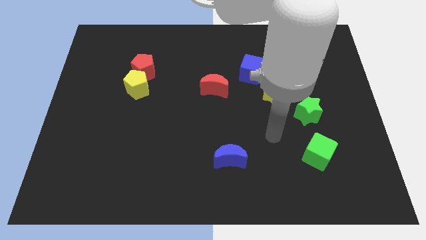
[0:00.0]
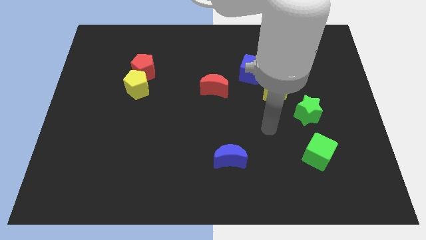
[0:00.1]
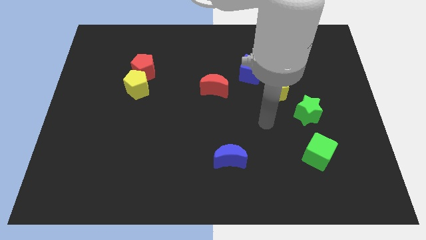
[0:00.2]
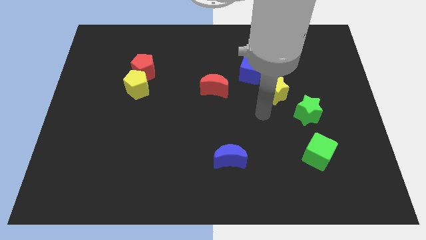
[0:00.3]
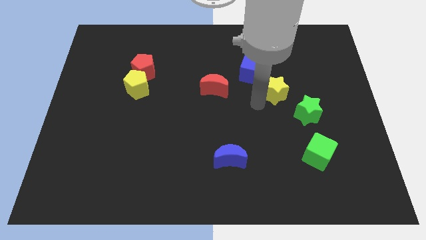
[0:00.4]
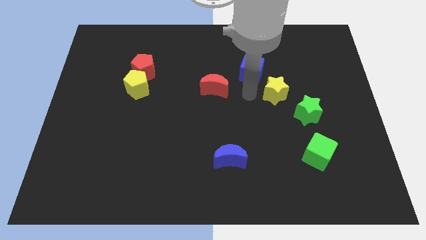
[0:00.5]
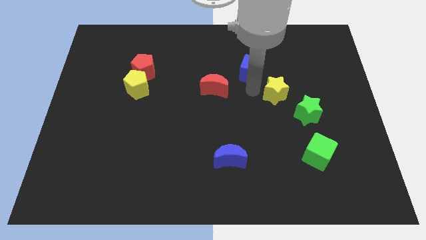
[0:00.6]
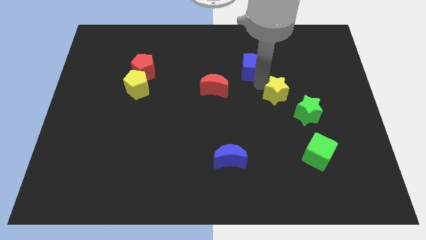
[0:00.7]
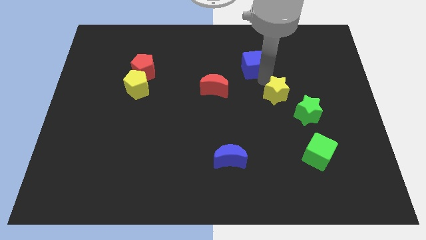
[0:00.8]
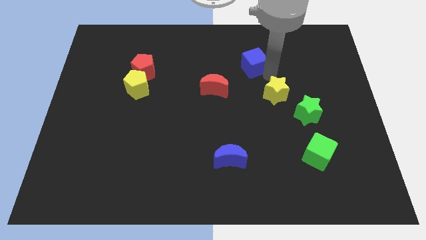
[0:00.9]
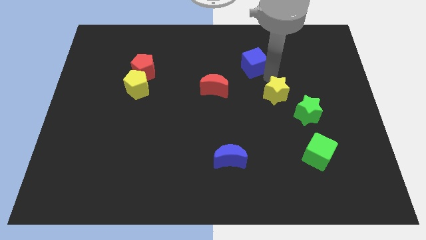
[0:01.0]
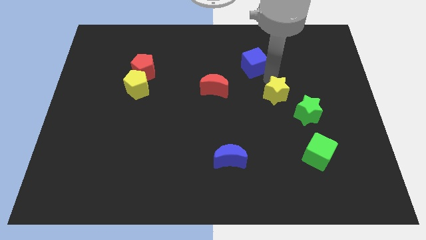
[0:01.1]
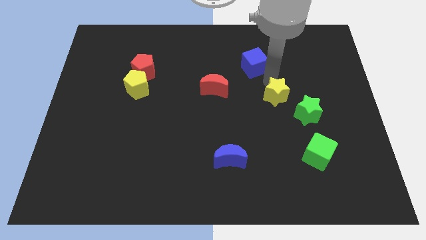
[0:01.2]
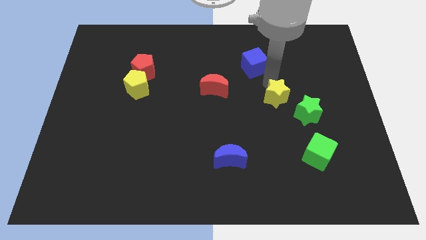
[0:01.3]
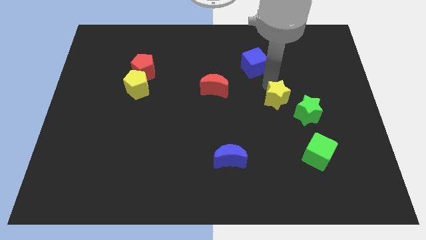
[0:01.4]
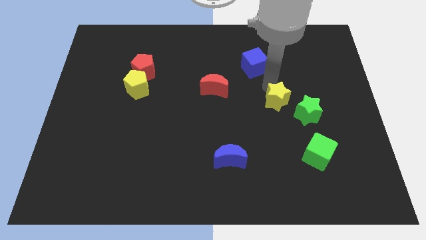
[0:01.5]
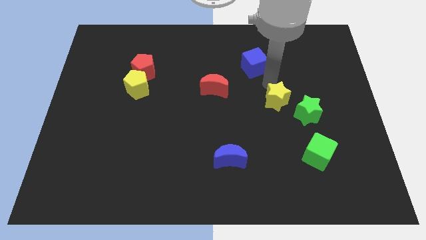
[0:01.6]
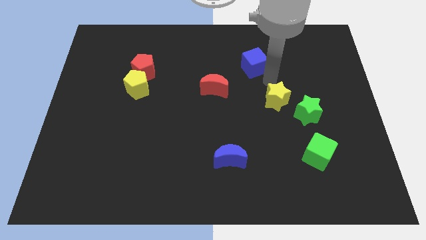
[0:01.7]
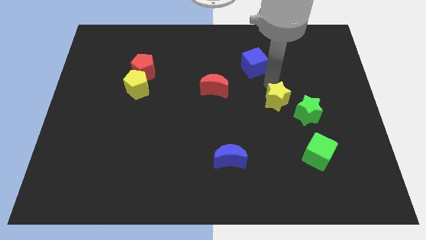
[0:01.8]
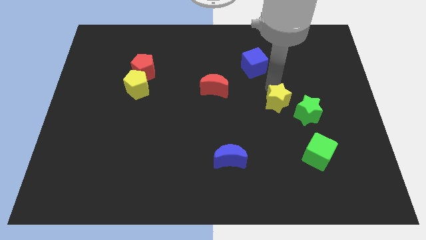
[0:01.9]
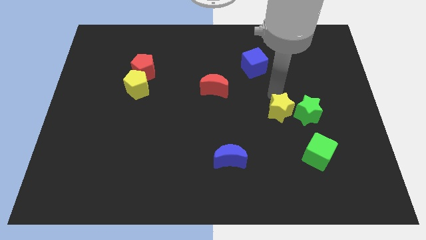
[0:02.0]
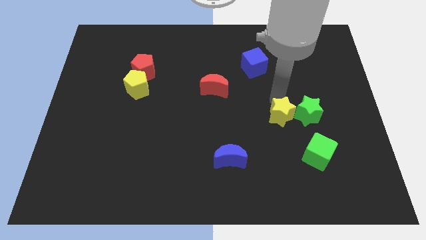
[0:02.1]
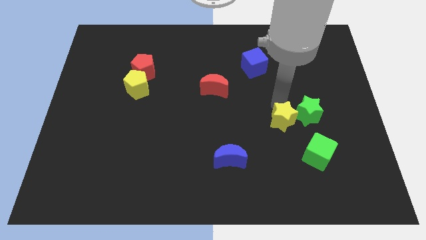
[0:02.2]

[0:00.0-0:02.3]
slightly slide the yellow star downwards

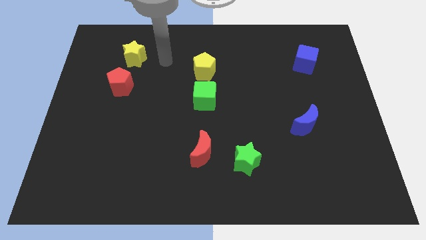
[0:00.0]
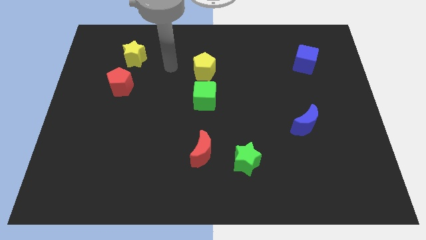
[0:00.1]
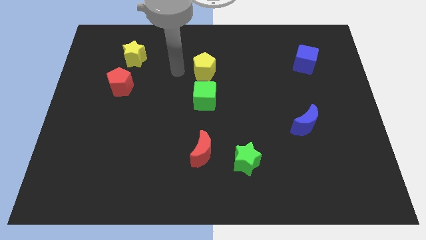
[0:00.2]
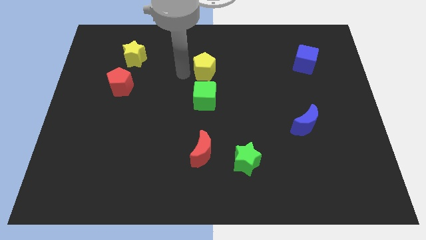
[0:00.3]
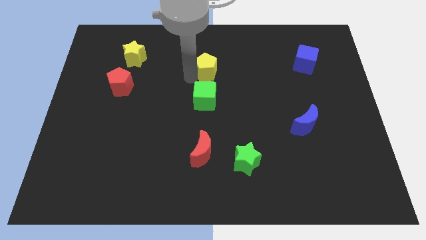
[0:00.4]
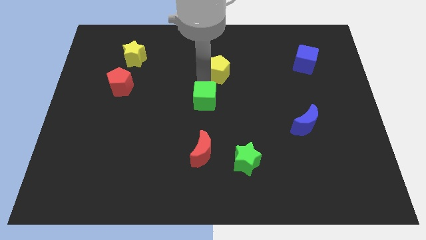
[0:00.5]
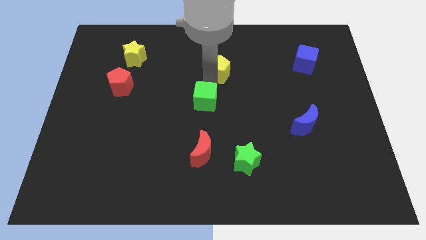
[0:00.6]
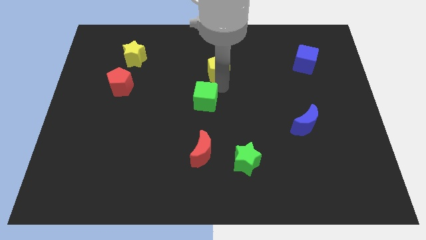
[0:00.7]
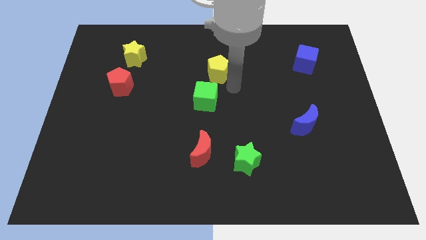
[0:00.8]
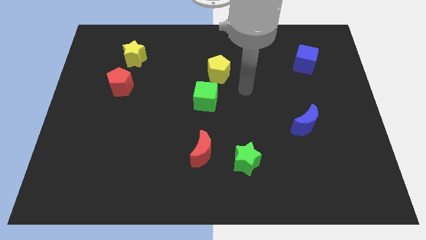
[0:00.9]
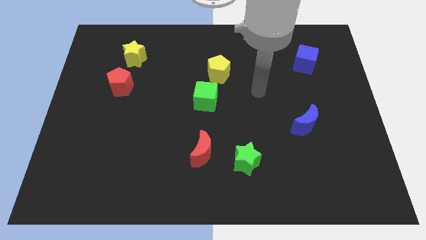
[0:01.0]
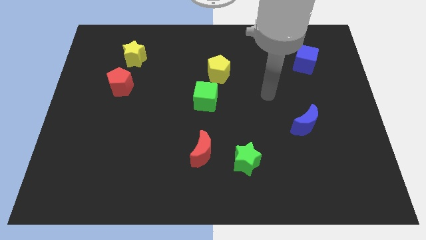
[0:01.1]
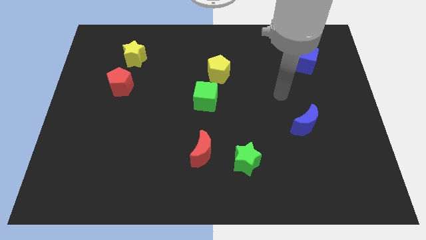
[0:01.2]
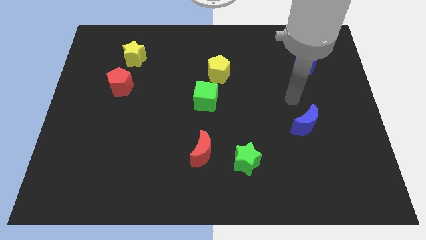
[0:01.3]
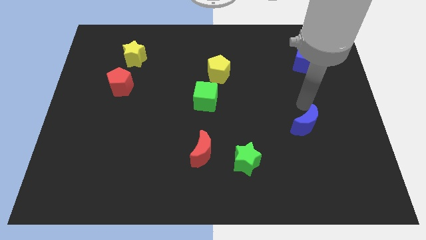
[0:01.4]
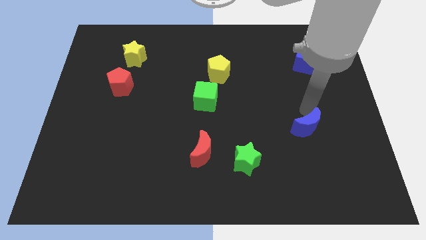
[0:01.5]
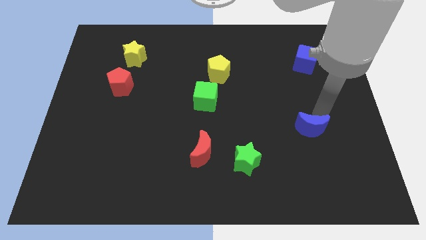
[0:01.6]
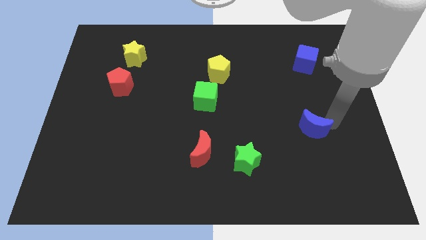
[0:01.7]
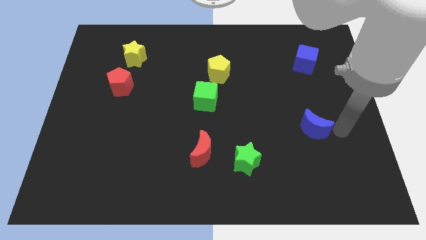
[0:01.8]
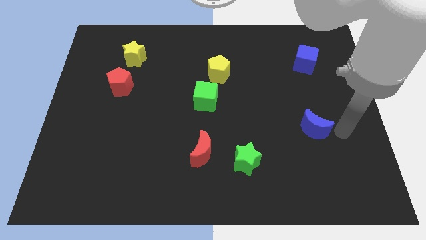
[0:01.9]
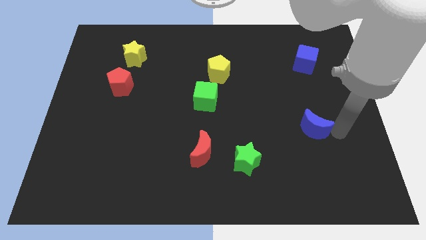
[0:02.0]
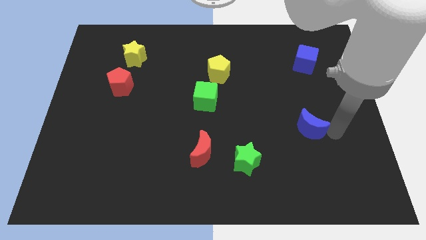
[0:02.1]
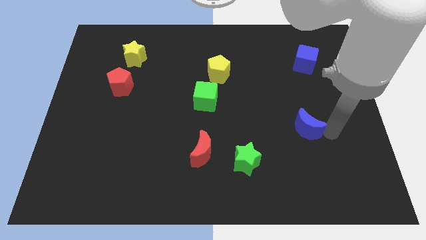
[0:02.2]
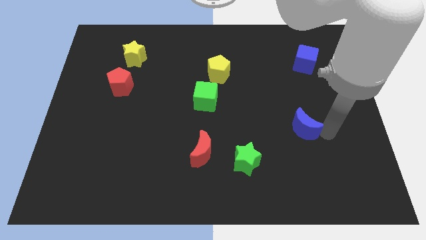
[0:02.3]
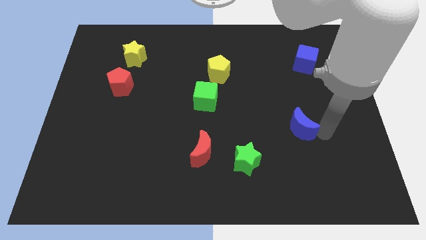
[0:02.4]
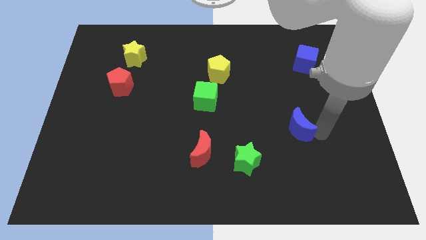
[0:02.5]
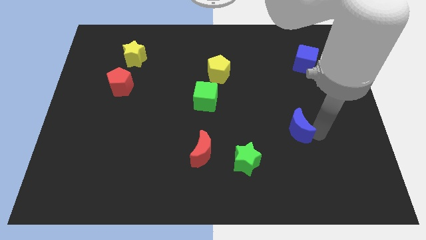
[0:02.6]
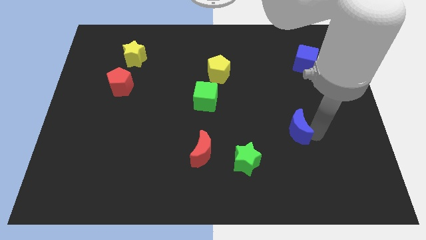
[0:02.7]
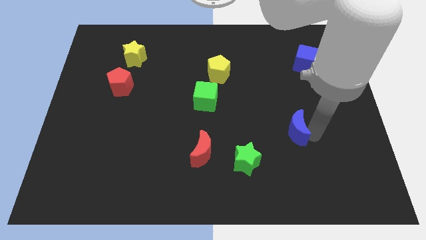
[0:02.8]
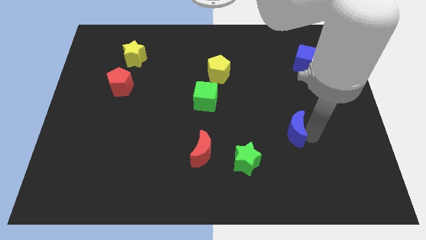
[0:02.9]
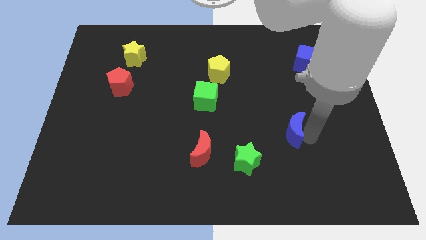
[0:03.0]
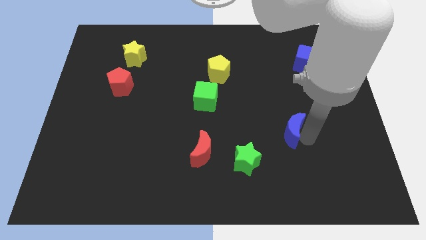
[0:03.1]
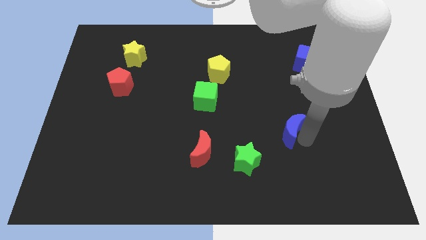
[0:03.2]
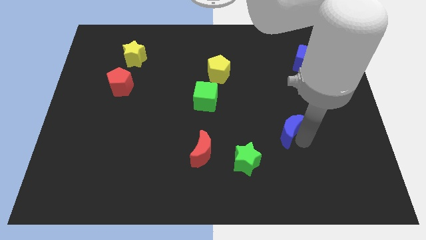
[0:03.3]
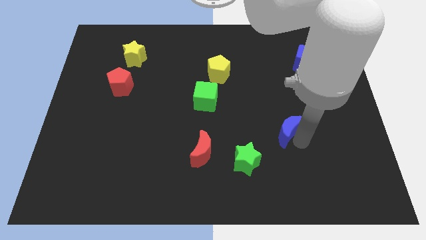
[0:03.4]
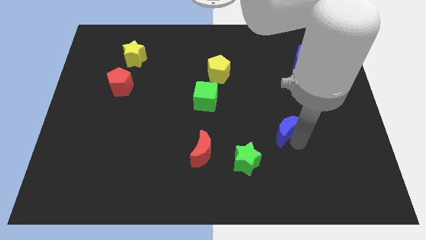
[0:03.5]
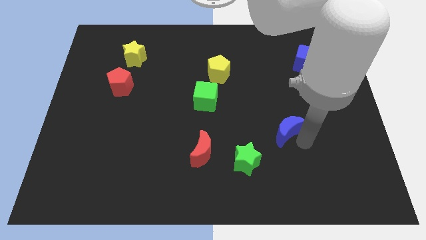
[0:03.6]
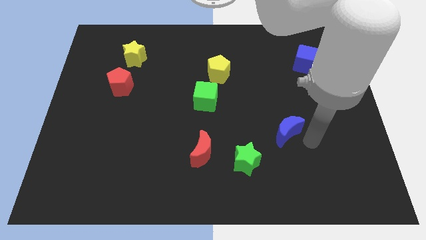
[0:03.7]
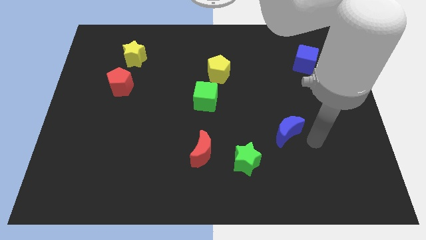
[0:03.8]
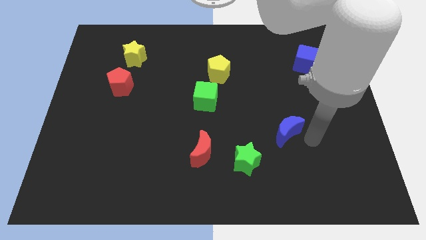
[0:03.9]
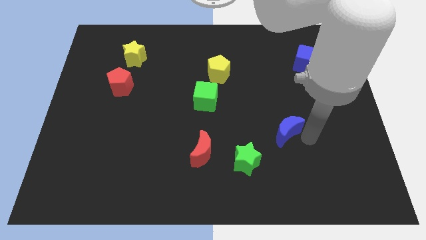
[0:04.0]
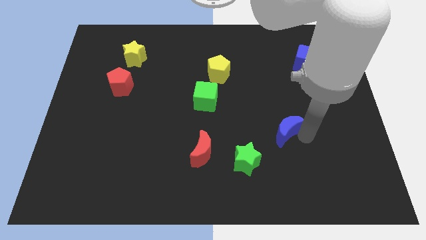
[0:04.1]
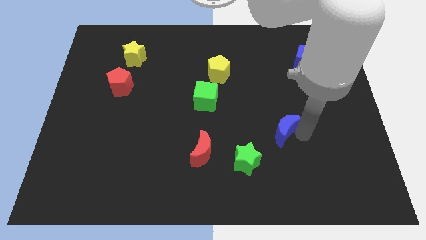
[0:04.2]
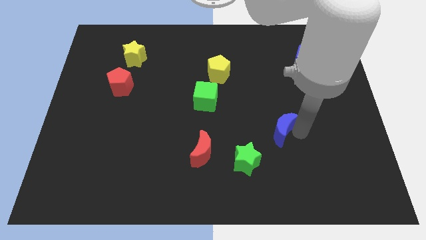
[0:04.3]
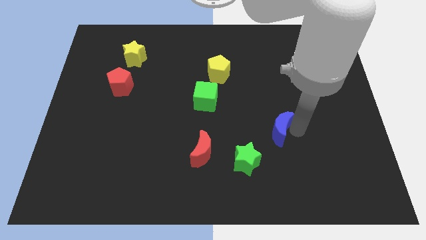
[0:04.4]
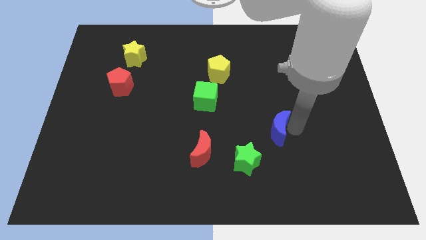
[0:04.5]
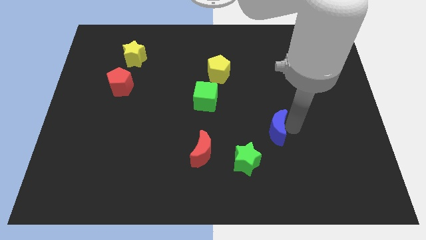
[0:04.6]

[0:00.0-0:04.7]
move the blue moon slightly to the left

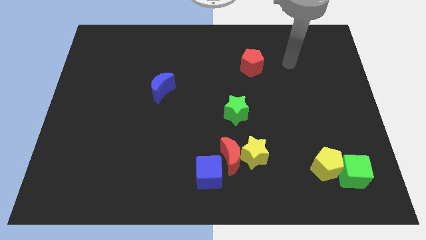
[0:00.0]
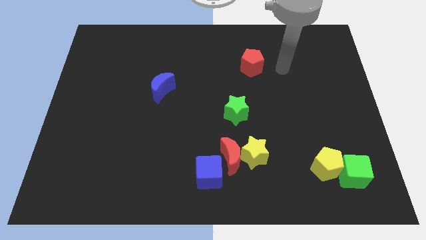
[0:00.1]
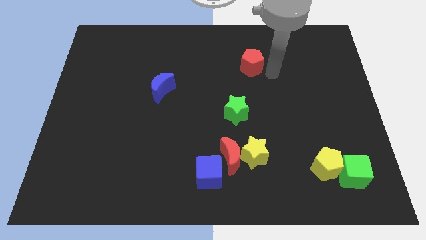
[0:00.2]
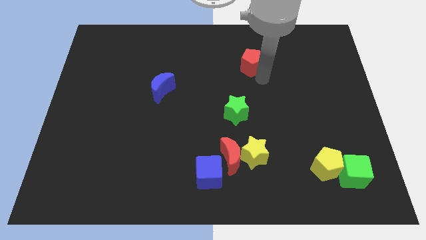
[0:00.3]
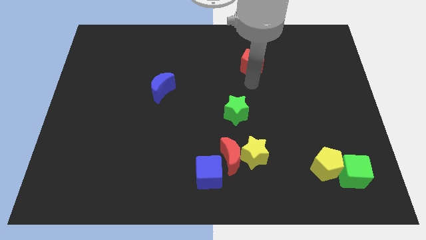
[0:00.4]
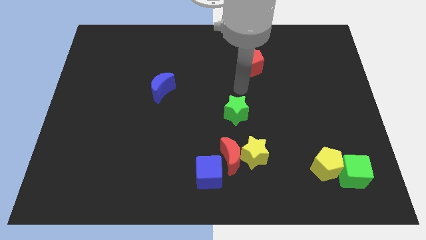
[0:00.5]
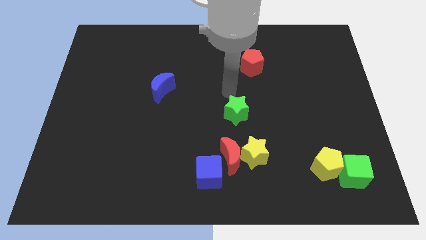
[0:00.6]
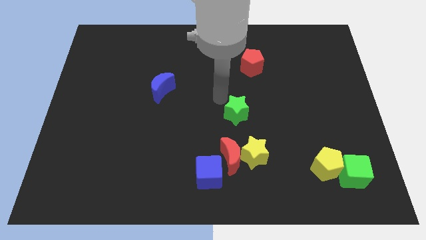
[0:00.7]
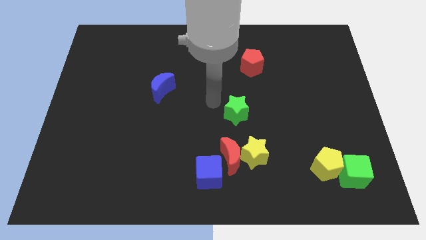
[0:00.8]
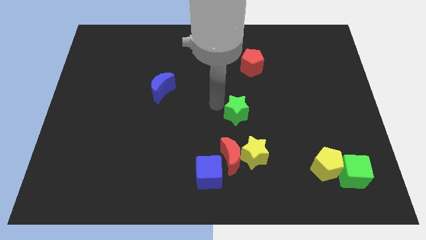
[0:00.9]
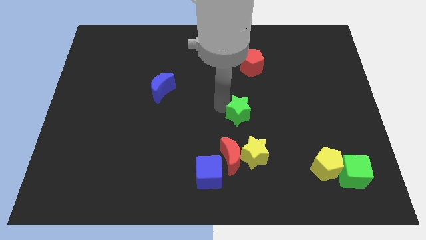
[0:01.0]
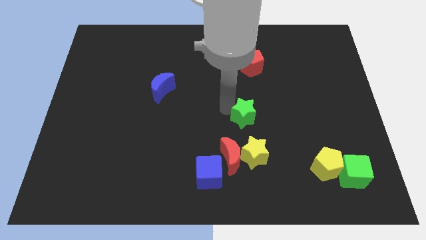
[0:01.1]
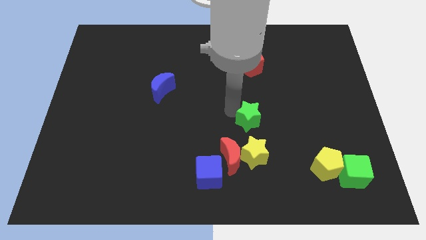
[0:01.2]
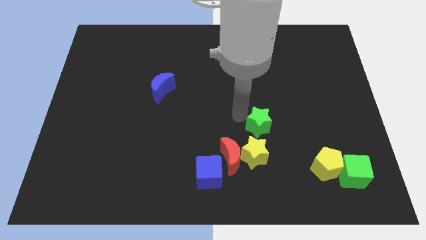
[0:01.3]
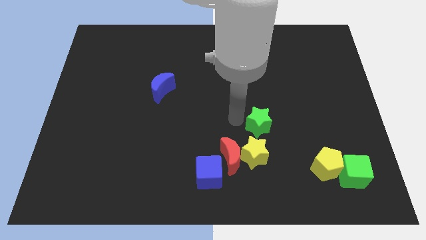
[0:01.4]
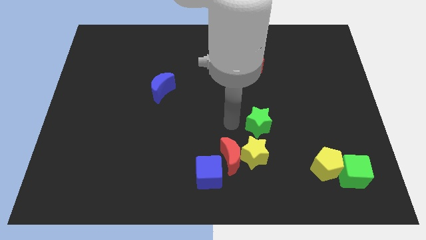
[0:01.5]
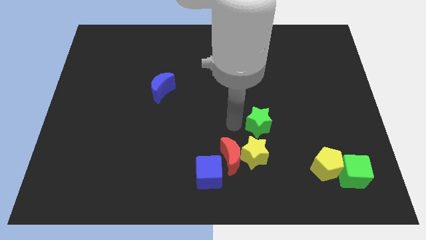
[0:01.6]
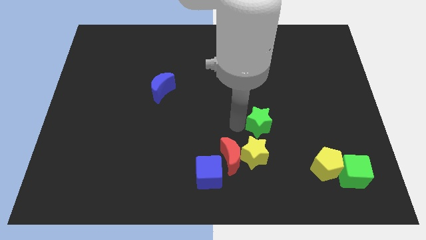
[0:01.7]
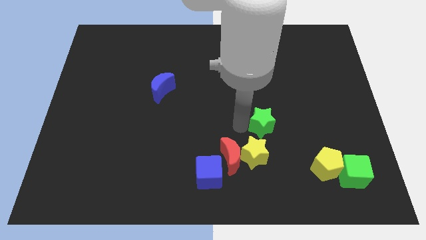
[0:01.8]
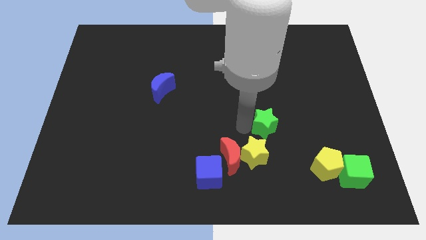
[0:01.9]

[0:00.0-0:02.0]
slightly slide the green star down and to the right
